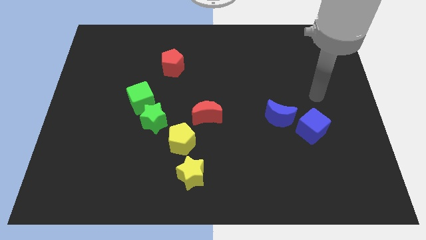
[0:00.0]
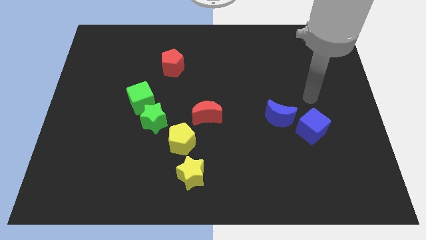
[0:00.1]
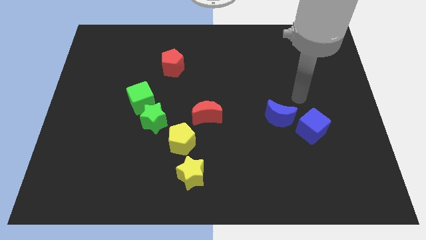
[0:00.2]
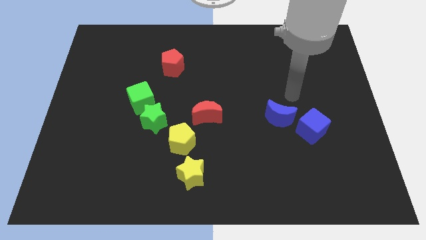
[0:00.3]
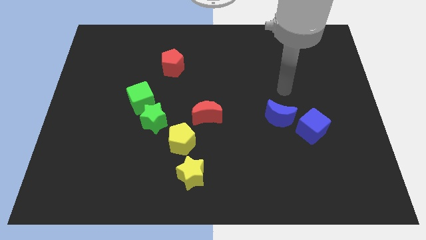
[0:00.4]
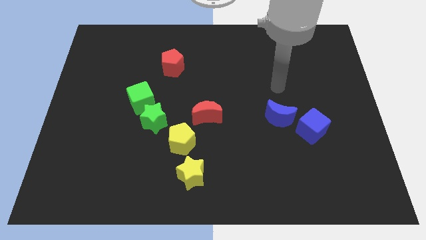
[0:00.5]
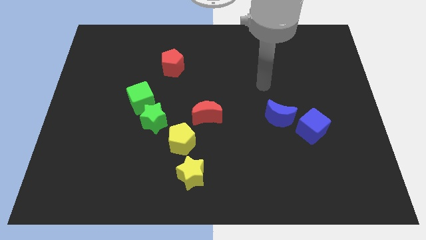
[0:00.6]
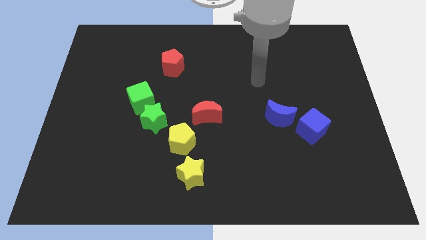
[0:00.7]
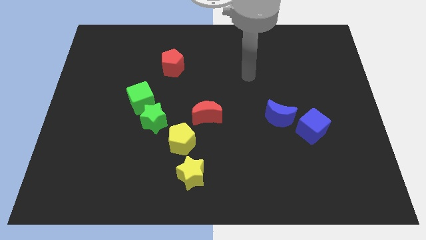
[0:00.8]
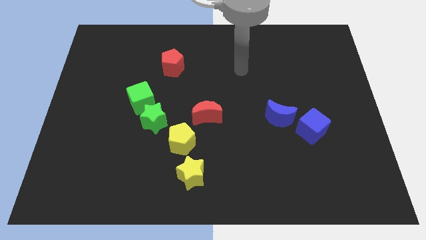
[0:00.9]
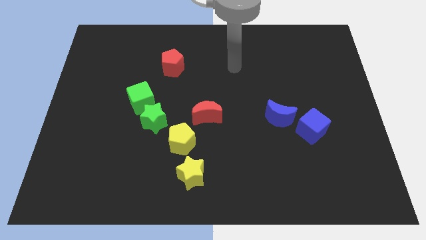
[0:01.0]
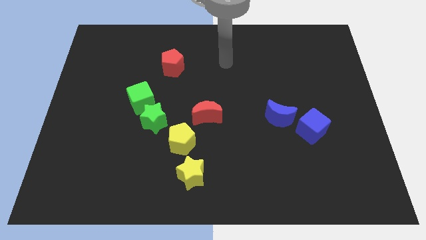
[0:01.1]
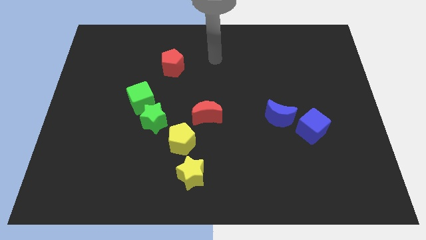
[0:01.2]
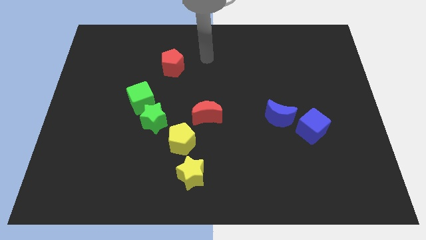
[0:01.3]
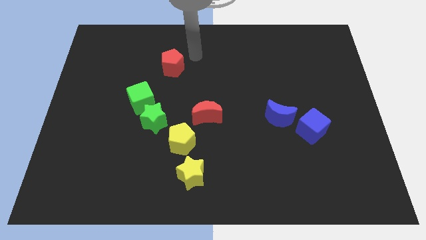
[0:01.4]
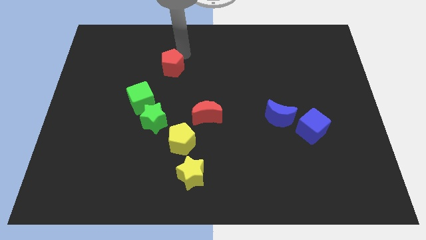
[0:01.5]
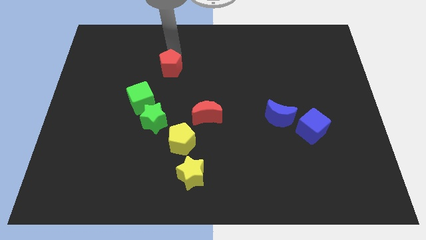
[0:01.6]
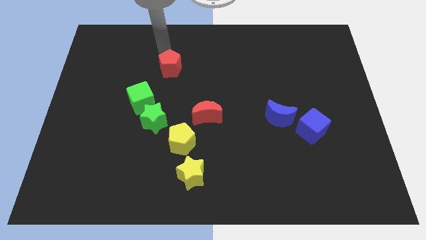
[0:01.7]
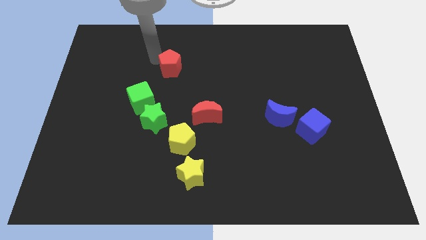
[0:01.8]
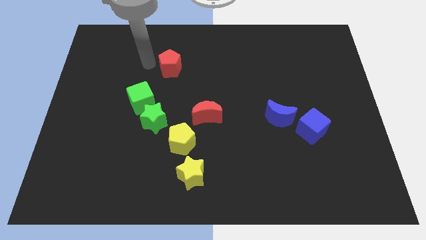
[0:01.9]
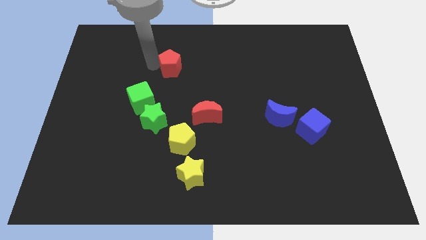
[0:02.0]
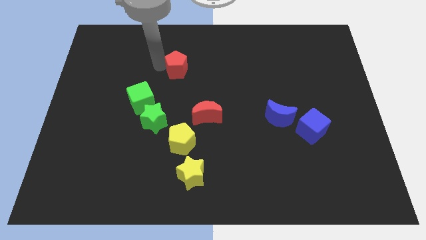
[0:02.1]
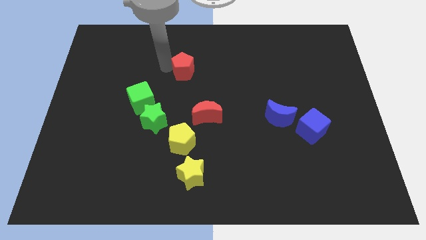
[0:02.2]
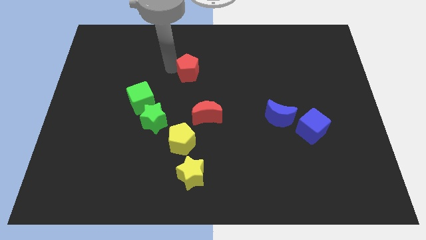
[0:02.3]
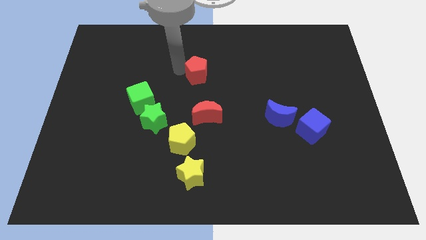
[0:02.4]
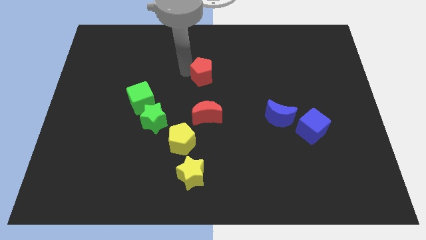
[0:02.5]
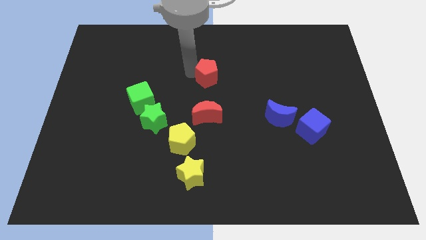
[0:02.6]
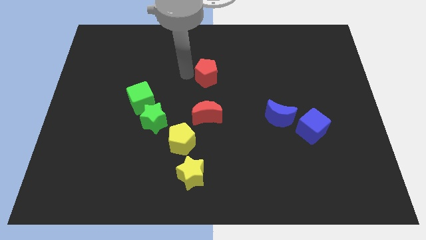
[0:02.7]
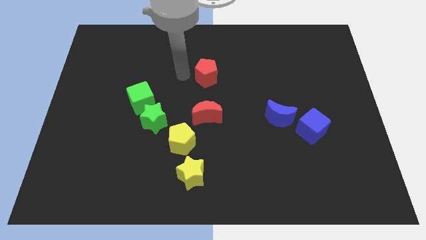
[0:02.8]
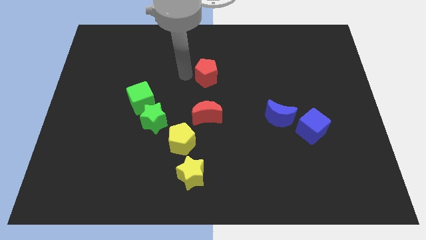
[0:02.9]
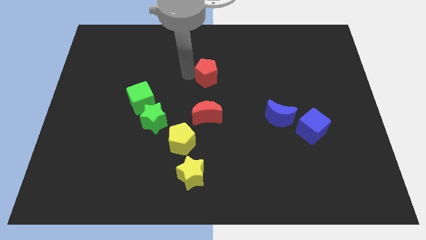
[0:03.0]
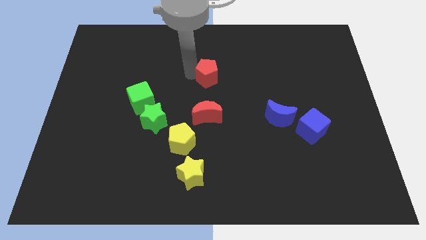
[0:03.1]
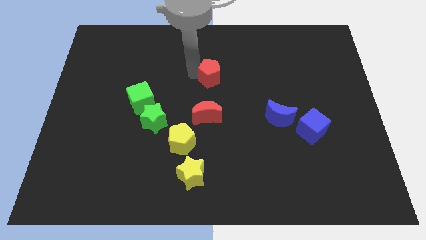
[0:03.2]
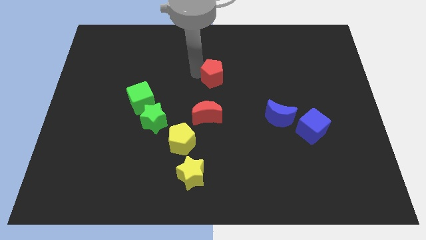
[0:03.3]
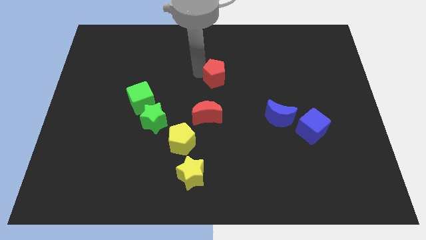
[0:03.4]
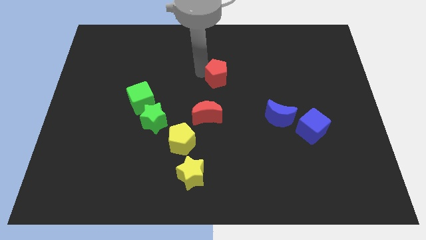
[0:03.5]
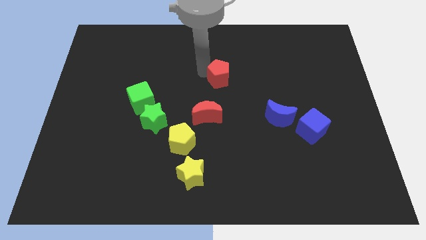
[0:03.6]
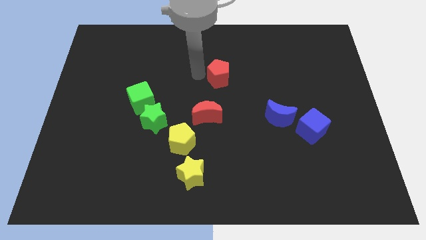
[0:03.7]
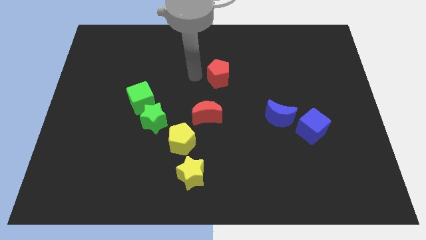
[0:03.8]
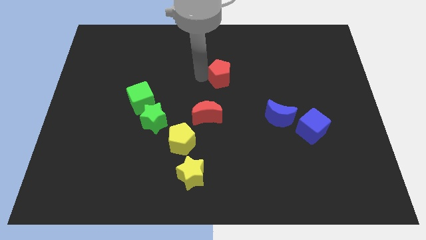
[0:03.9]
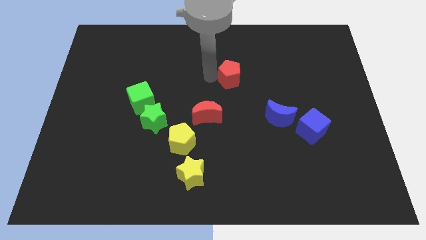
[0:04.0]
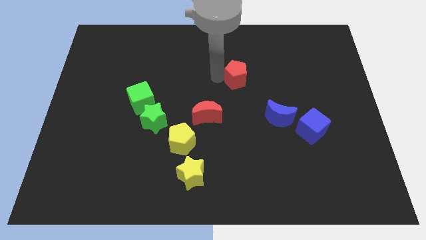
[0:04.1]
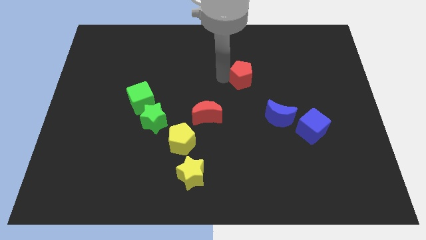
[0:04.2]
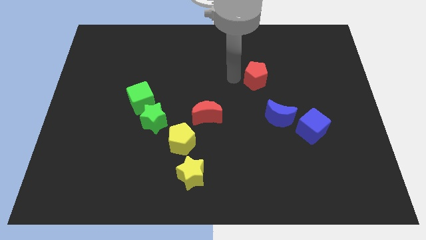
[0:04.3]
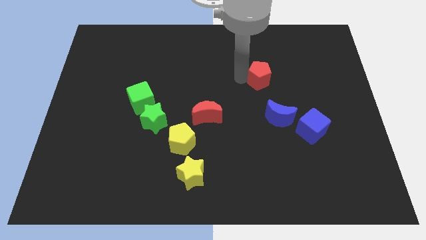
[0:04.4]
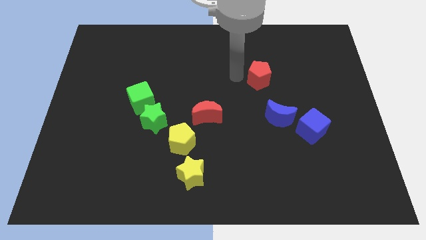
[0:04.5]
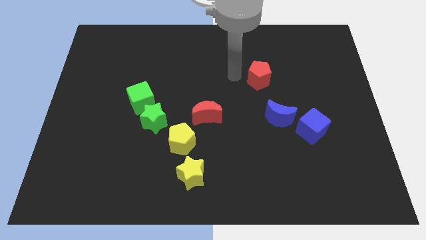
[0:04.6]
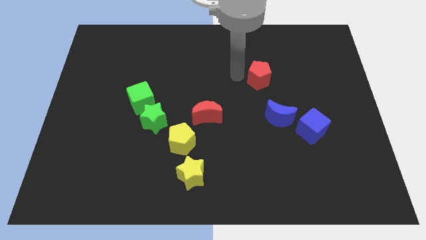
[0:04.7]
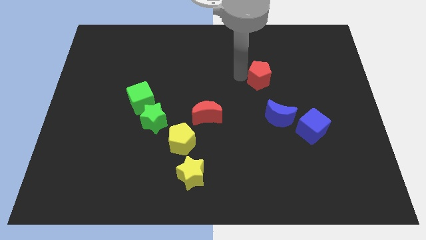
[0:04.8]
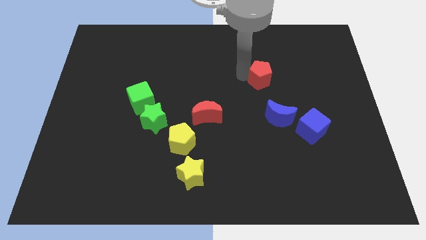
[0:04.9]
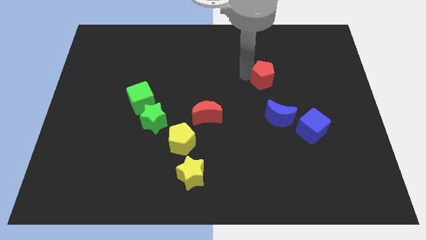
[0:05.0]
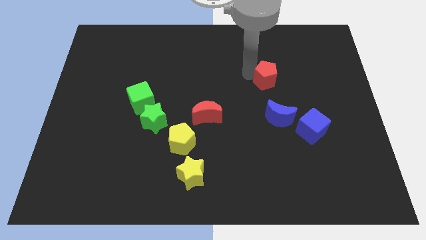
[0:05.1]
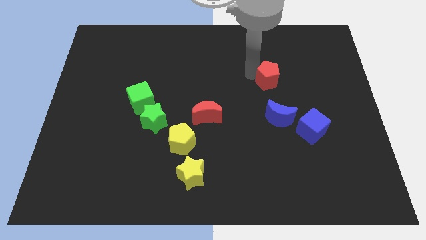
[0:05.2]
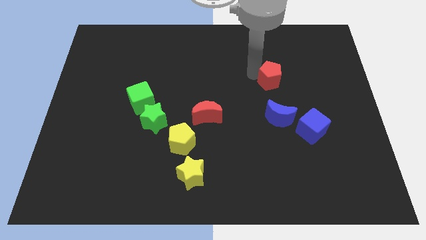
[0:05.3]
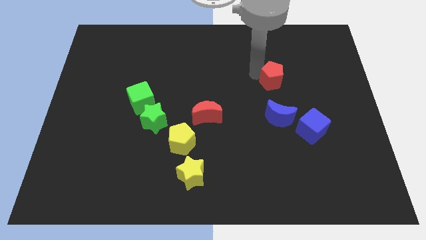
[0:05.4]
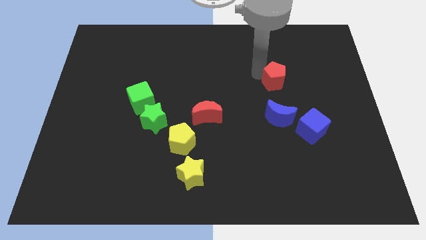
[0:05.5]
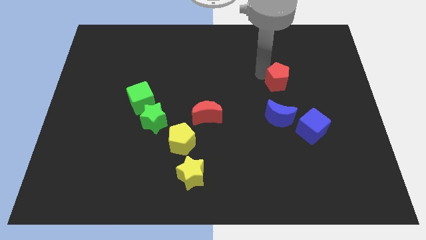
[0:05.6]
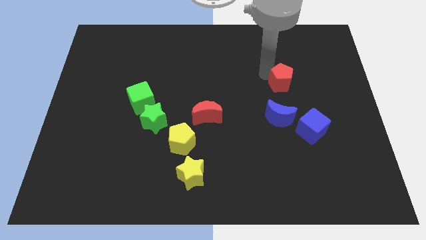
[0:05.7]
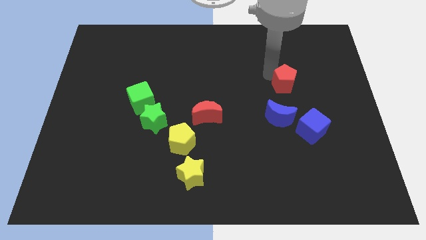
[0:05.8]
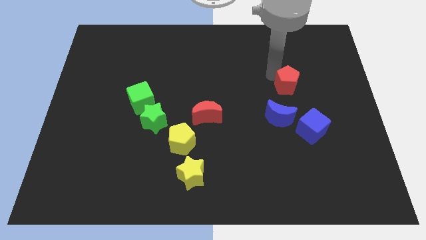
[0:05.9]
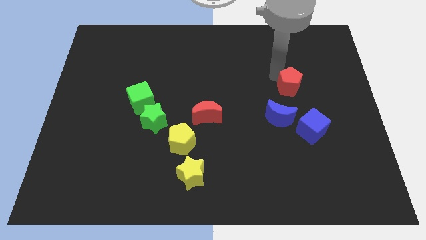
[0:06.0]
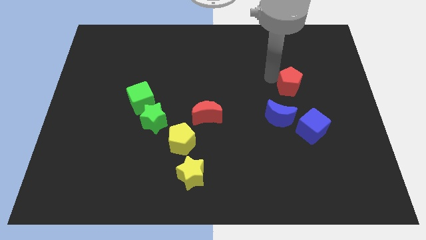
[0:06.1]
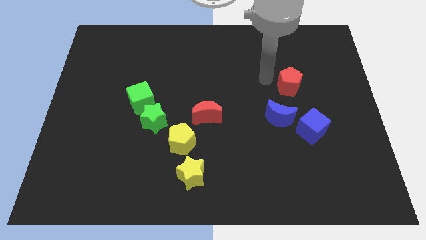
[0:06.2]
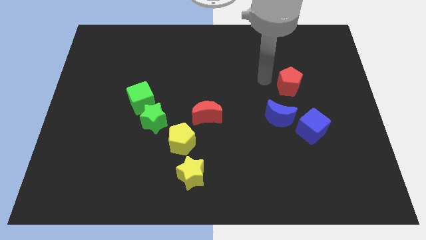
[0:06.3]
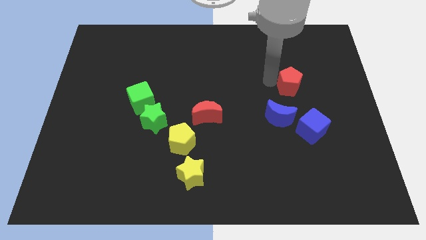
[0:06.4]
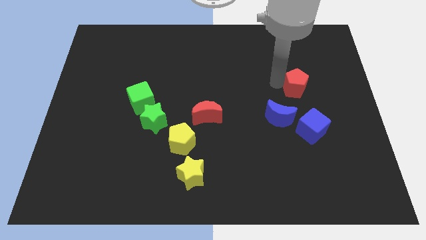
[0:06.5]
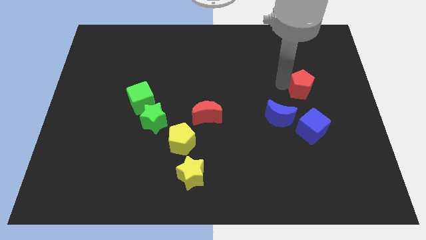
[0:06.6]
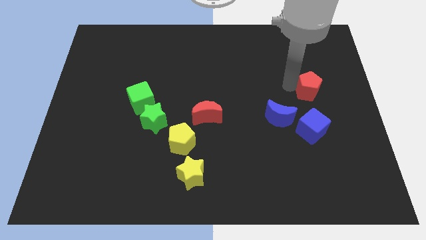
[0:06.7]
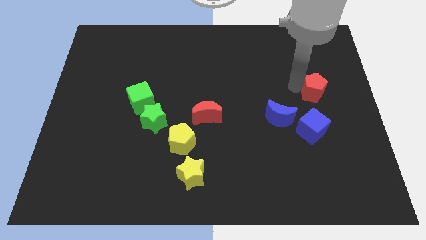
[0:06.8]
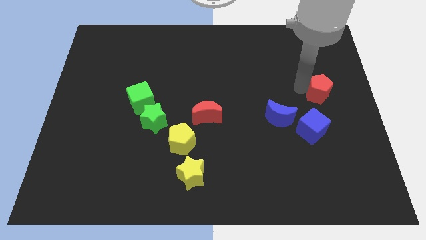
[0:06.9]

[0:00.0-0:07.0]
move the red pentagon to the right side
